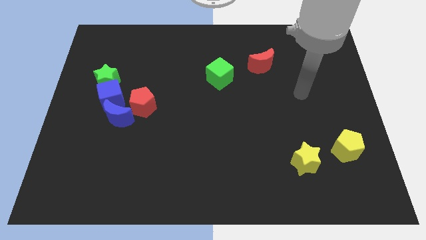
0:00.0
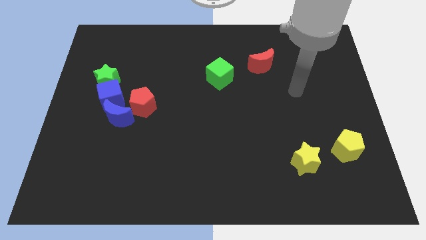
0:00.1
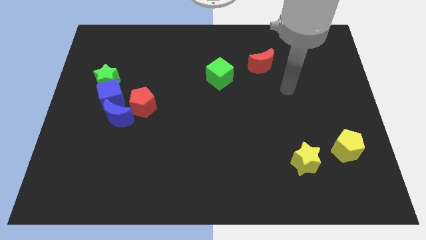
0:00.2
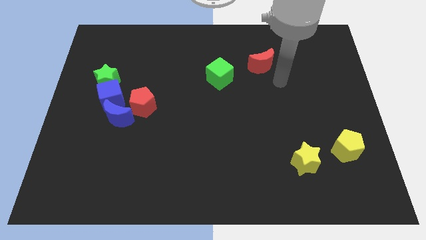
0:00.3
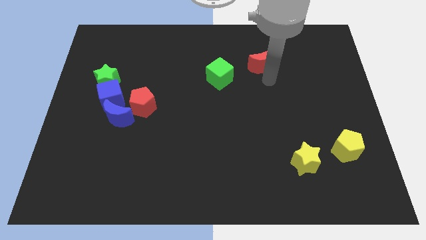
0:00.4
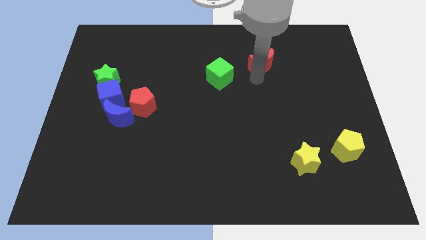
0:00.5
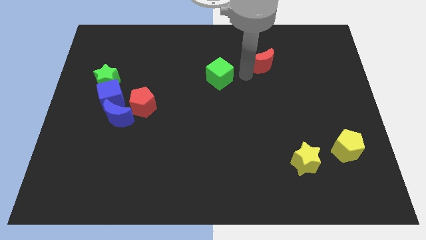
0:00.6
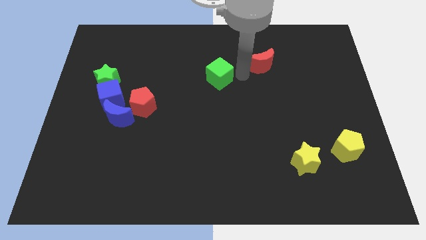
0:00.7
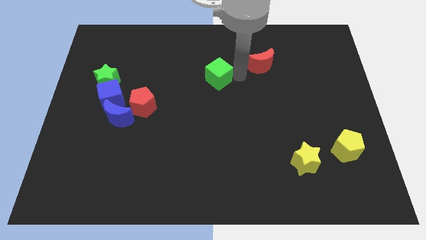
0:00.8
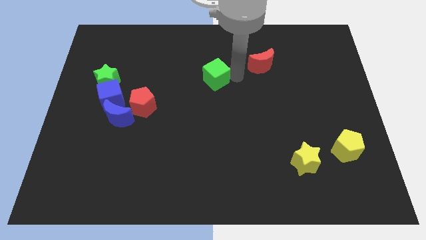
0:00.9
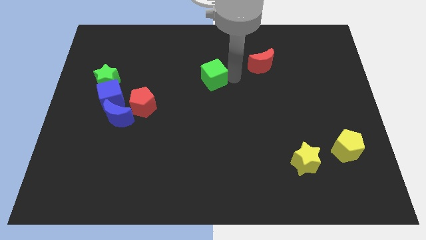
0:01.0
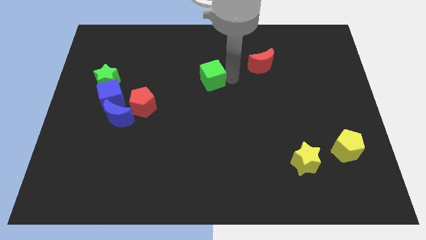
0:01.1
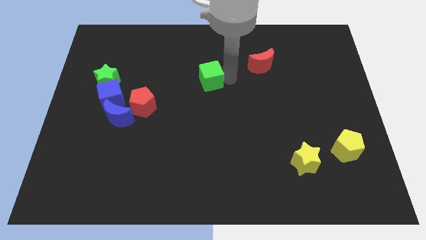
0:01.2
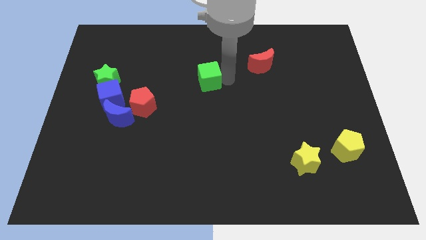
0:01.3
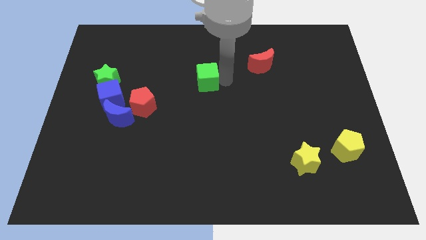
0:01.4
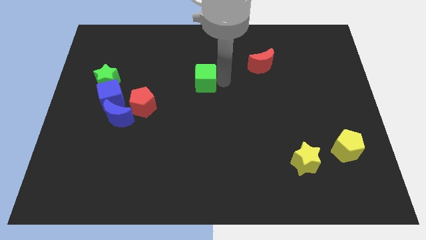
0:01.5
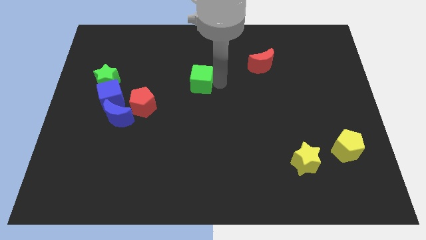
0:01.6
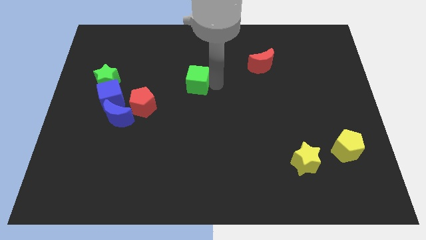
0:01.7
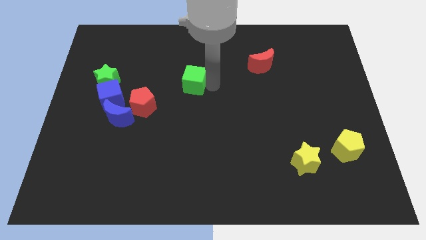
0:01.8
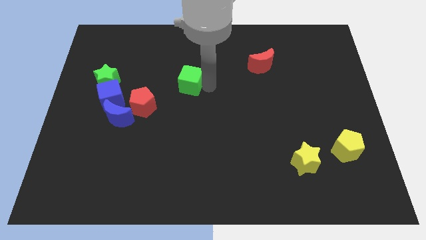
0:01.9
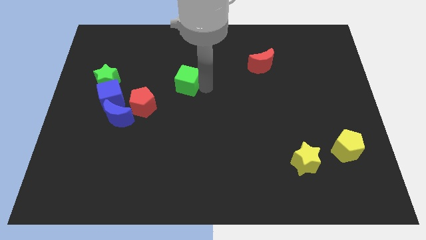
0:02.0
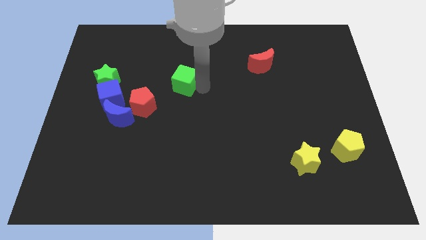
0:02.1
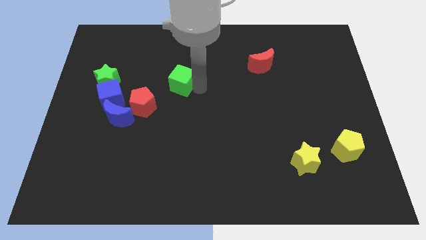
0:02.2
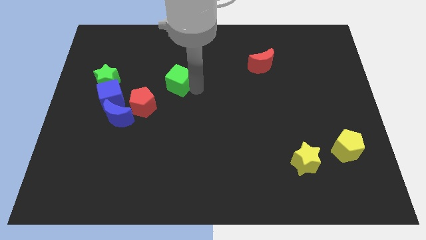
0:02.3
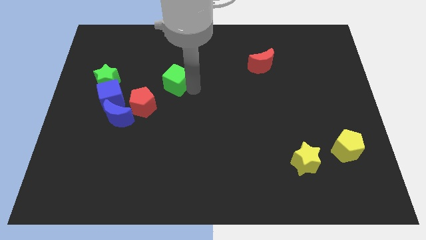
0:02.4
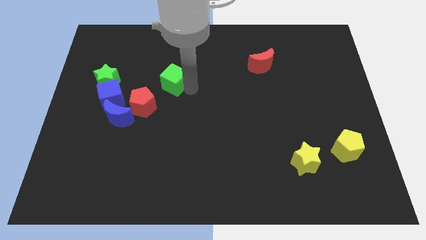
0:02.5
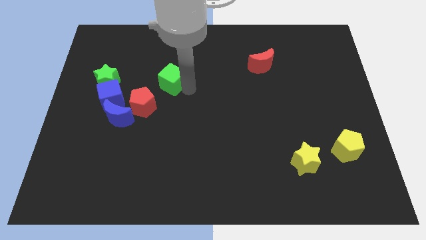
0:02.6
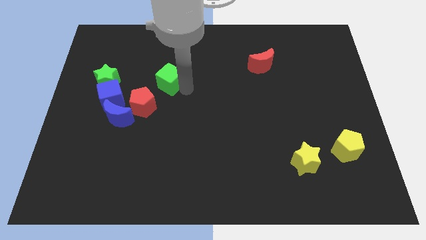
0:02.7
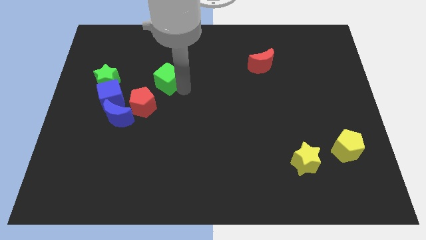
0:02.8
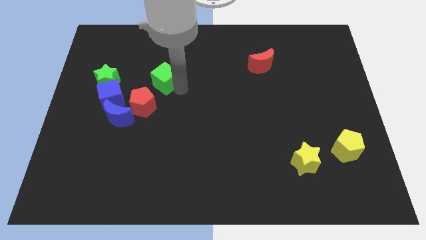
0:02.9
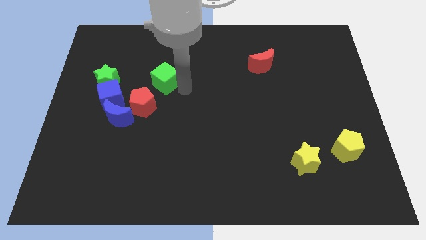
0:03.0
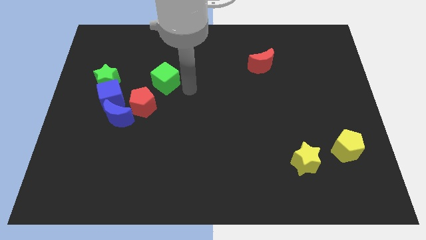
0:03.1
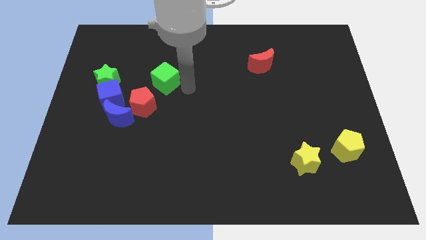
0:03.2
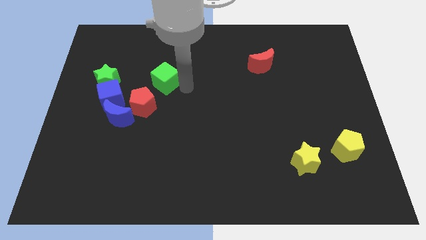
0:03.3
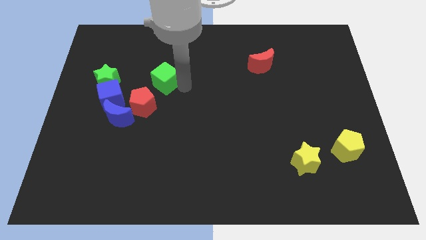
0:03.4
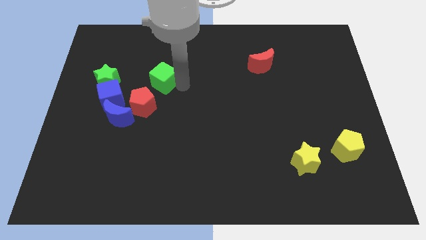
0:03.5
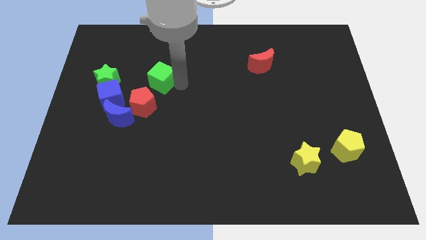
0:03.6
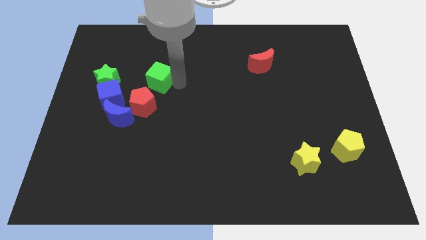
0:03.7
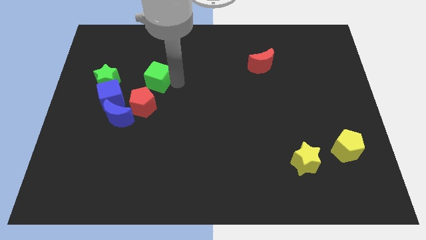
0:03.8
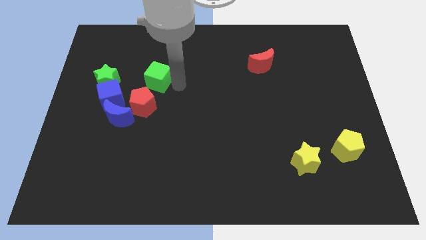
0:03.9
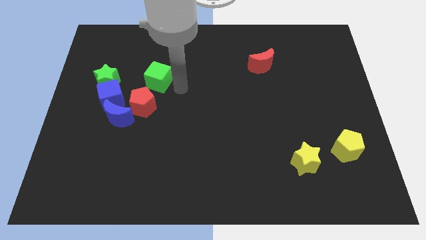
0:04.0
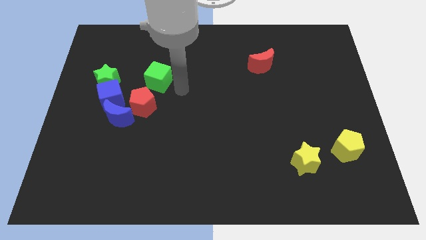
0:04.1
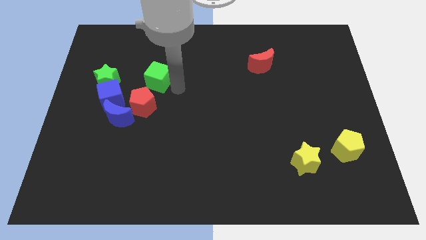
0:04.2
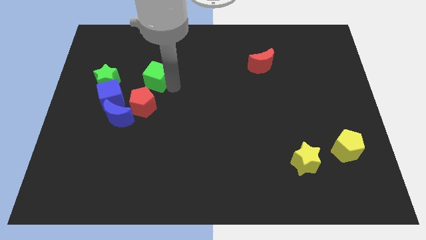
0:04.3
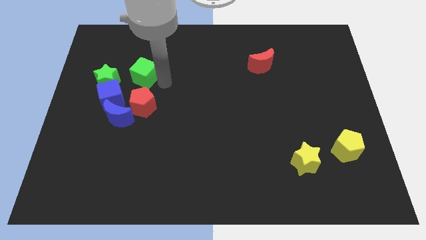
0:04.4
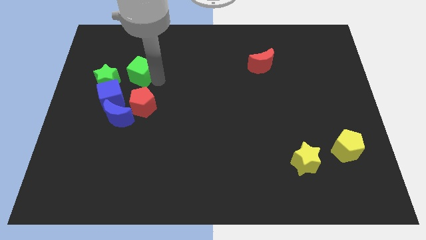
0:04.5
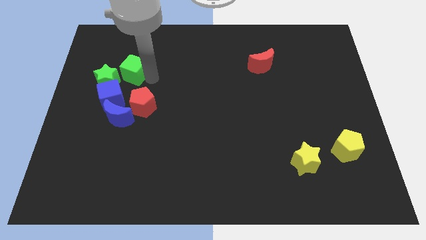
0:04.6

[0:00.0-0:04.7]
slide the green cube to the top side of the blue cube

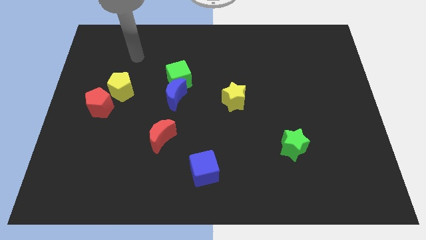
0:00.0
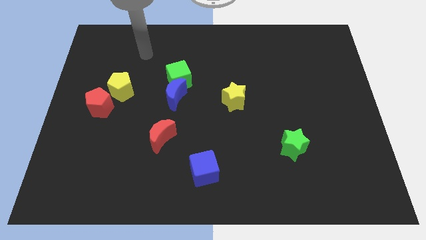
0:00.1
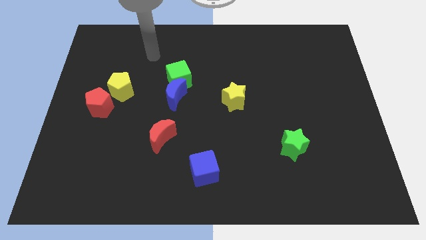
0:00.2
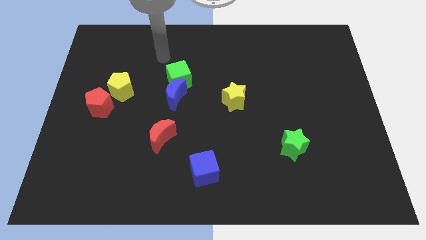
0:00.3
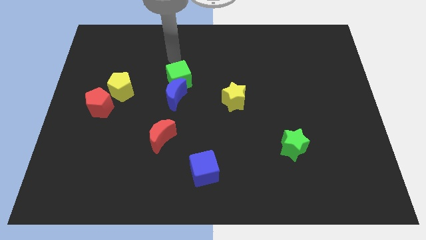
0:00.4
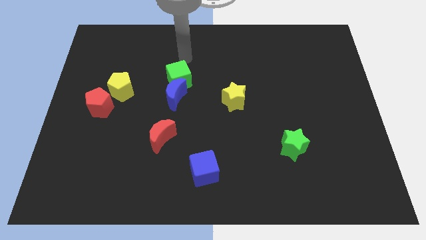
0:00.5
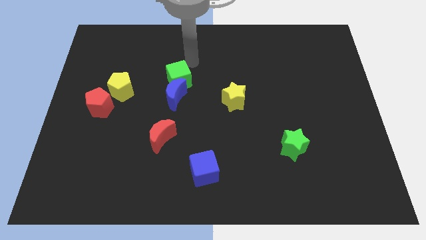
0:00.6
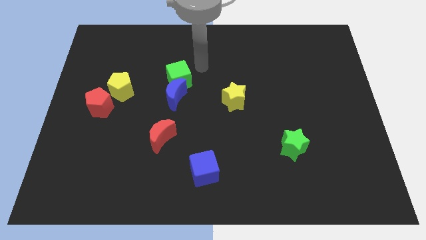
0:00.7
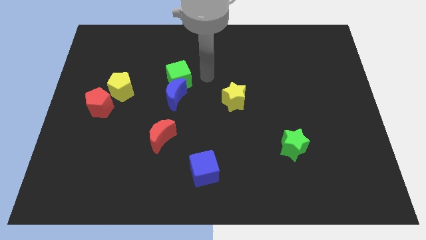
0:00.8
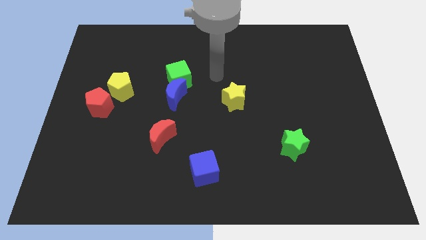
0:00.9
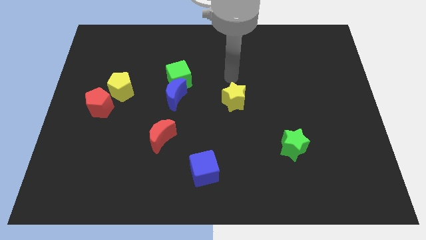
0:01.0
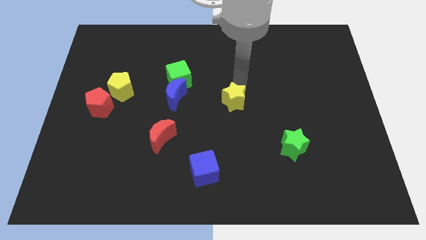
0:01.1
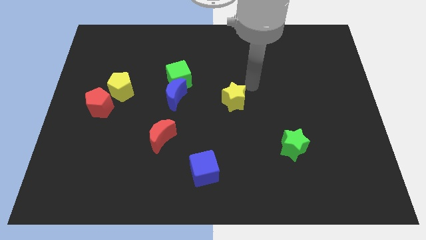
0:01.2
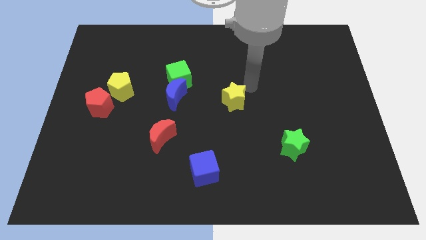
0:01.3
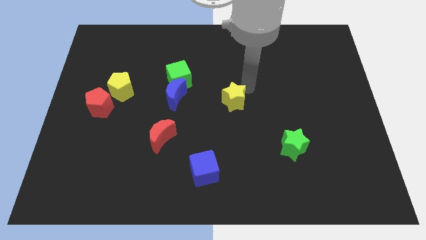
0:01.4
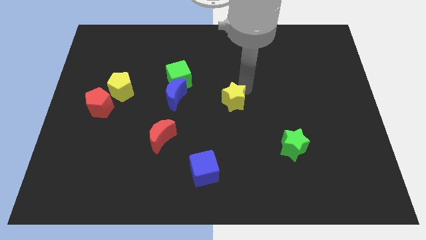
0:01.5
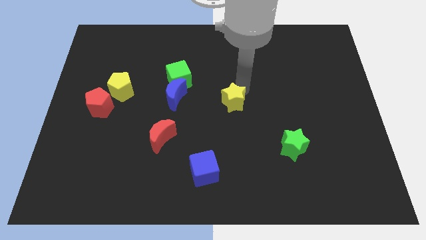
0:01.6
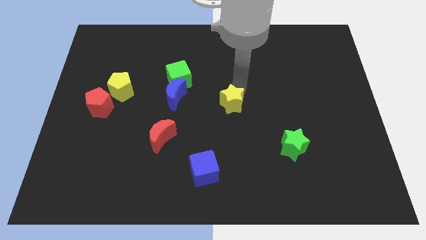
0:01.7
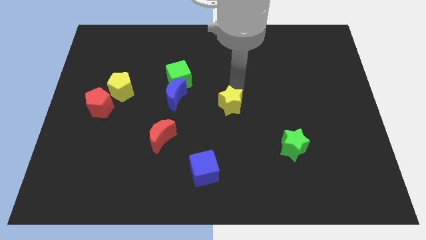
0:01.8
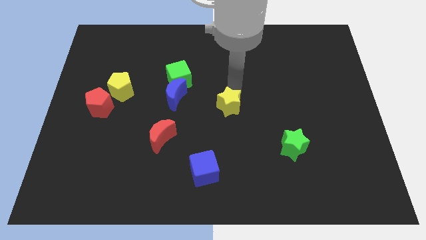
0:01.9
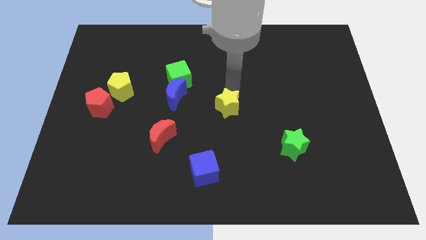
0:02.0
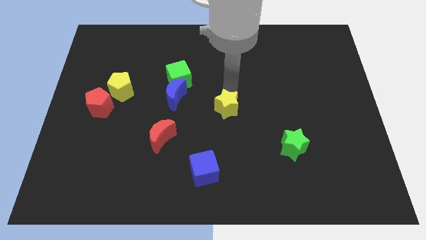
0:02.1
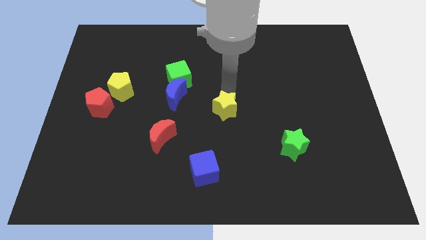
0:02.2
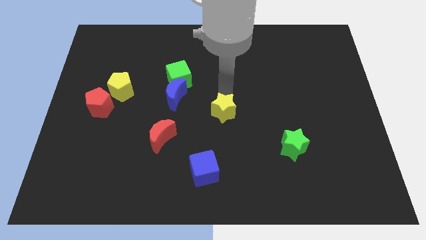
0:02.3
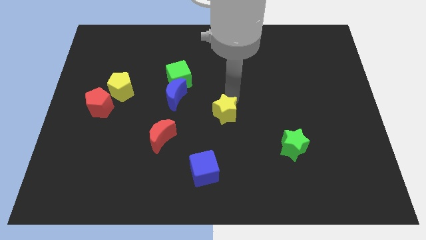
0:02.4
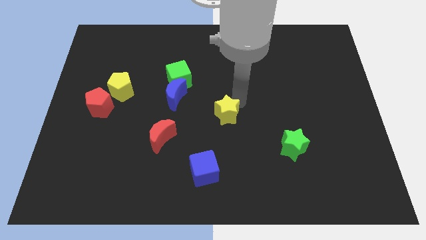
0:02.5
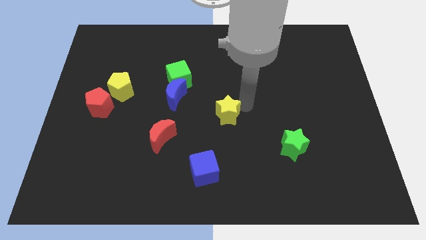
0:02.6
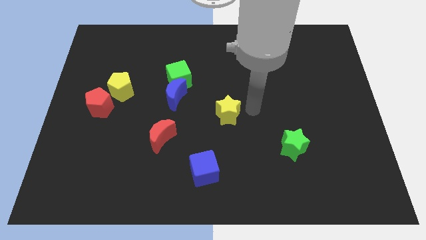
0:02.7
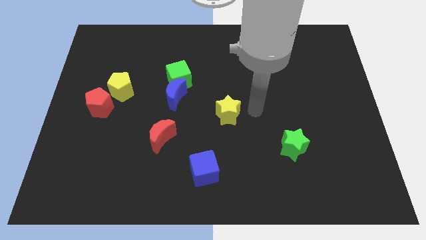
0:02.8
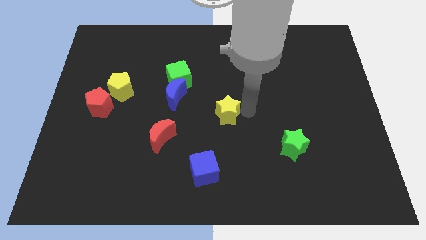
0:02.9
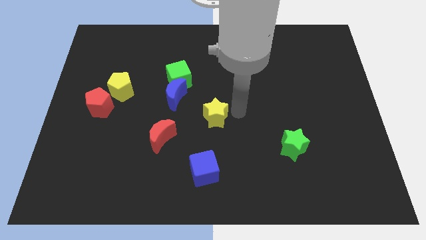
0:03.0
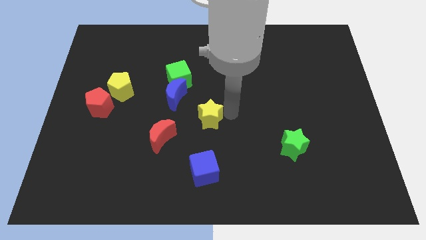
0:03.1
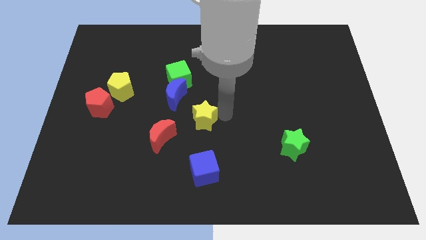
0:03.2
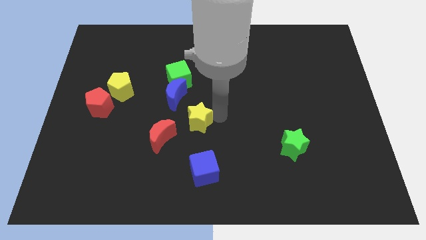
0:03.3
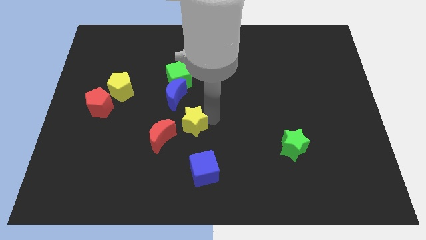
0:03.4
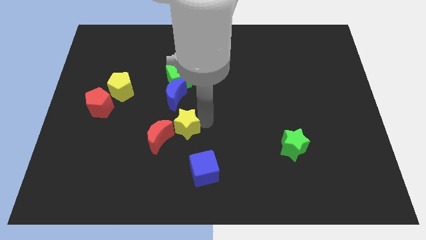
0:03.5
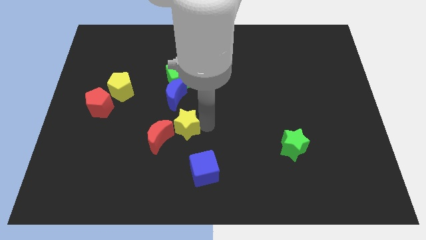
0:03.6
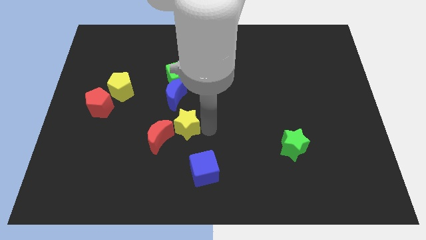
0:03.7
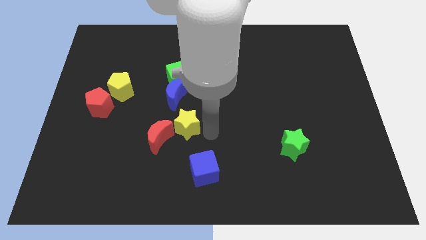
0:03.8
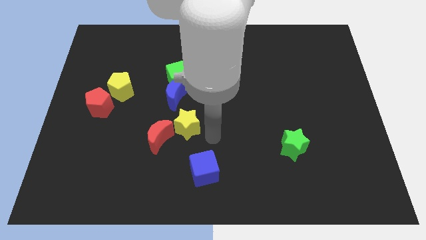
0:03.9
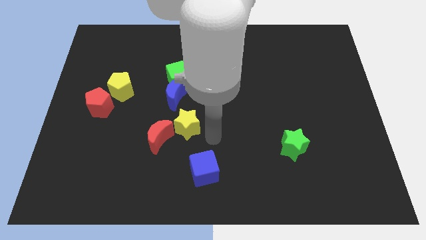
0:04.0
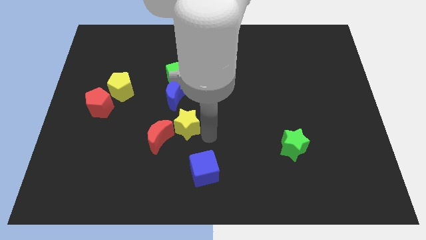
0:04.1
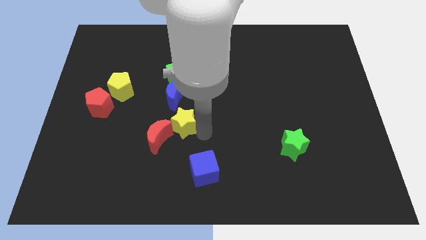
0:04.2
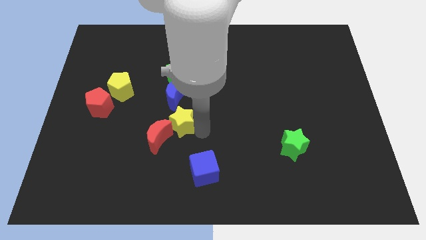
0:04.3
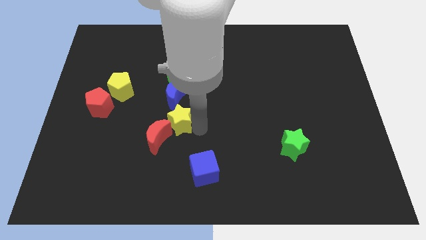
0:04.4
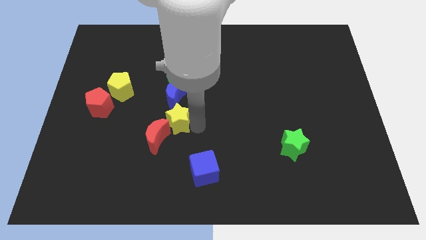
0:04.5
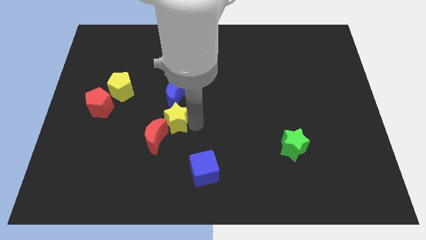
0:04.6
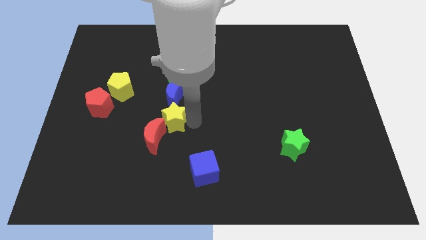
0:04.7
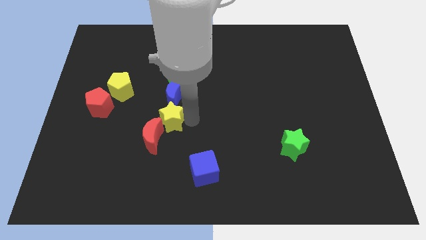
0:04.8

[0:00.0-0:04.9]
move the yellow star to the bottom left side of the blue moon
